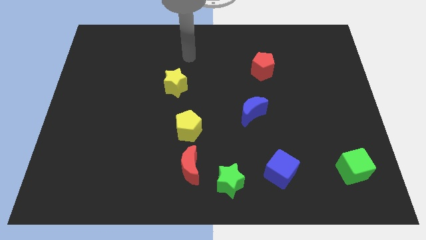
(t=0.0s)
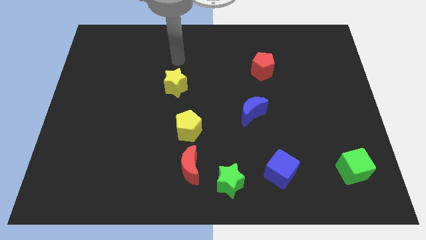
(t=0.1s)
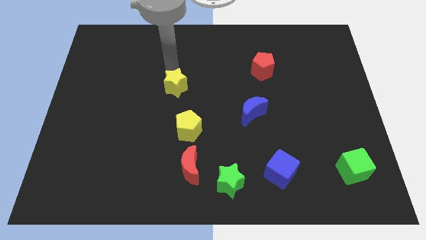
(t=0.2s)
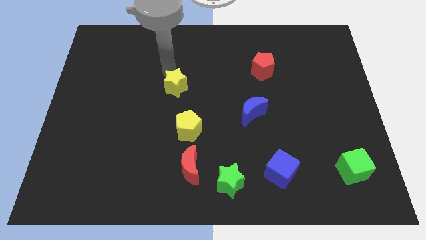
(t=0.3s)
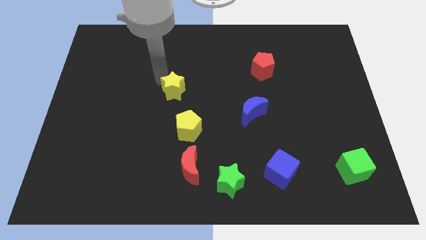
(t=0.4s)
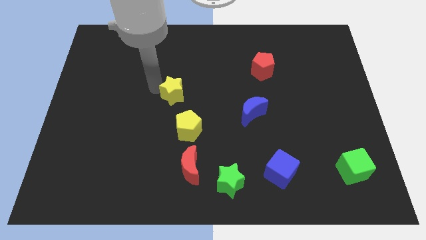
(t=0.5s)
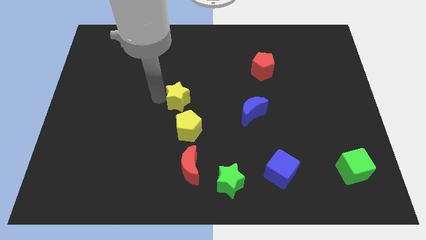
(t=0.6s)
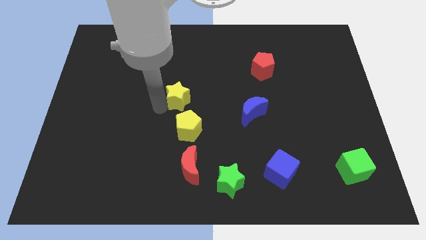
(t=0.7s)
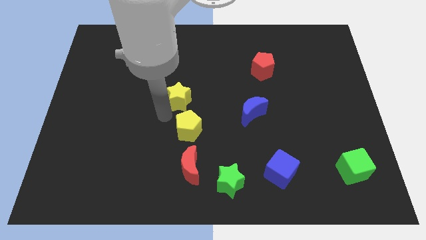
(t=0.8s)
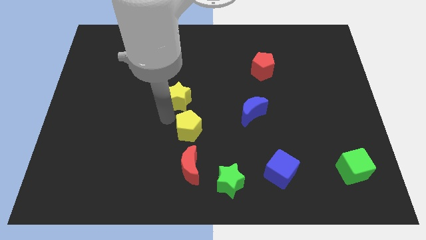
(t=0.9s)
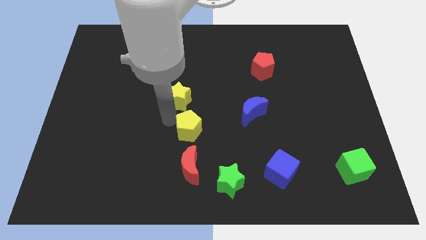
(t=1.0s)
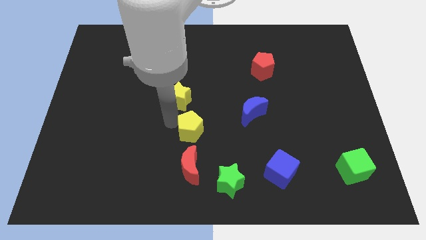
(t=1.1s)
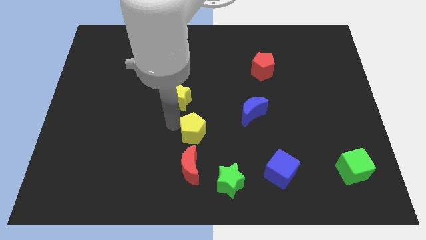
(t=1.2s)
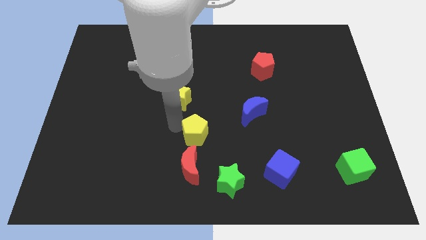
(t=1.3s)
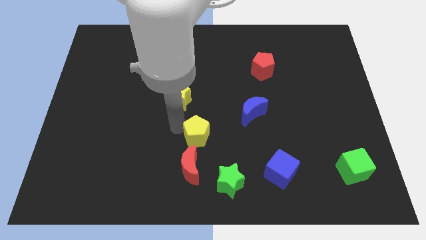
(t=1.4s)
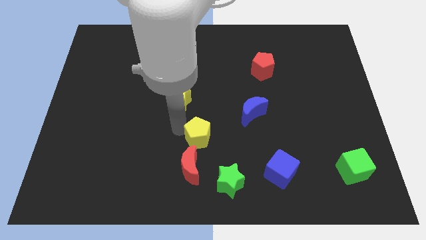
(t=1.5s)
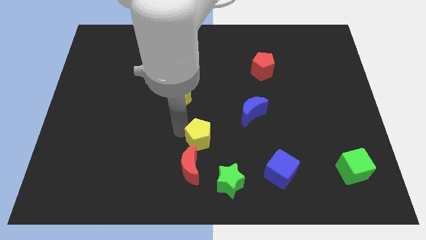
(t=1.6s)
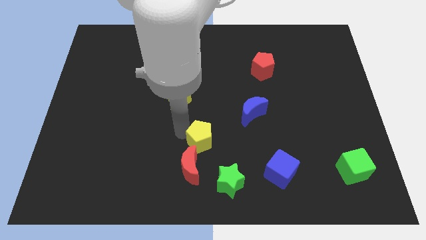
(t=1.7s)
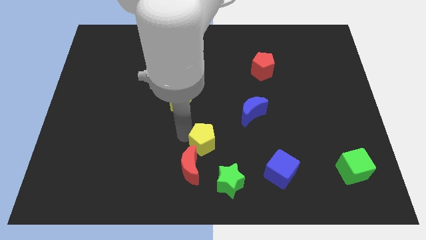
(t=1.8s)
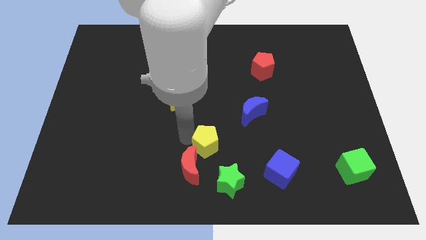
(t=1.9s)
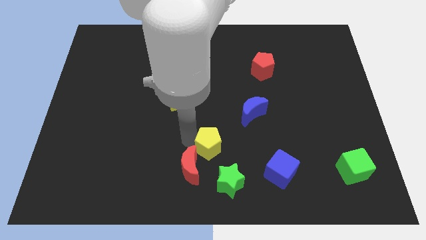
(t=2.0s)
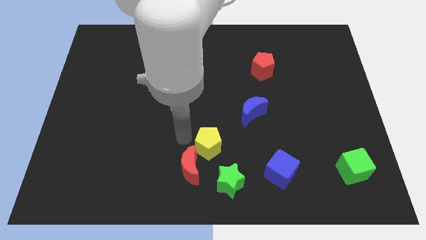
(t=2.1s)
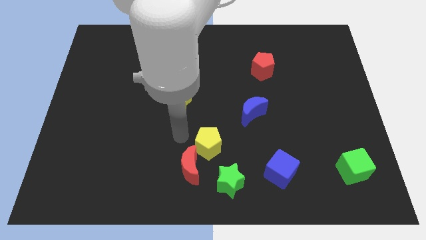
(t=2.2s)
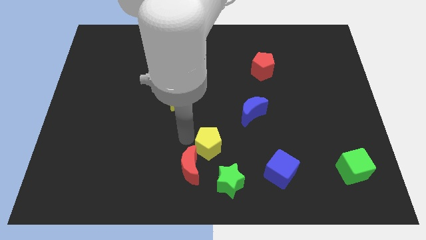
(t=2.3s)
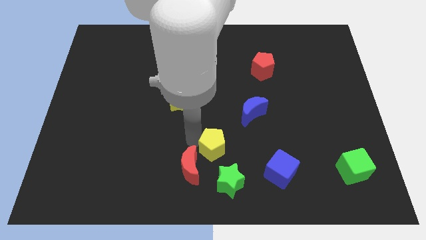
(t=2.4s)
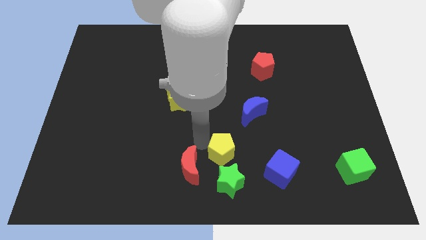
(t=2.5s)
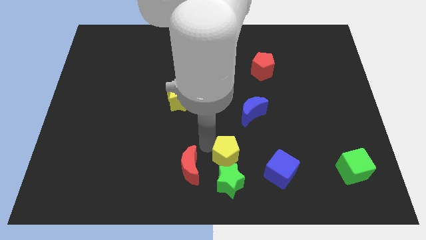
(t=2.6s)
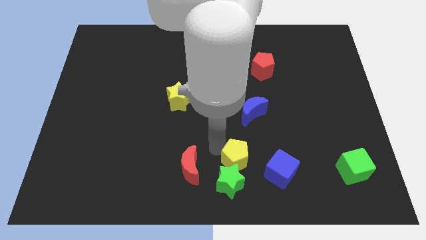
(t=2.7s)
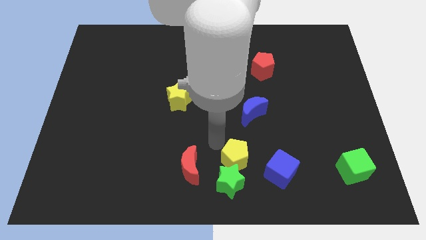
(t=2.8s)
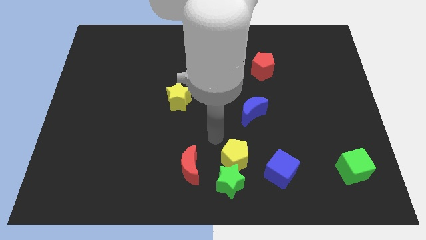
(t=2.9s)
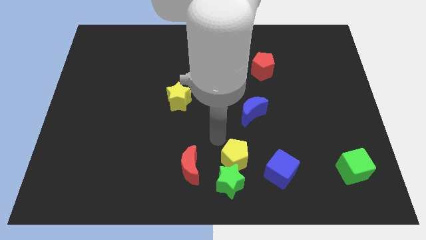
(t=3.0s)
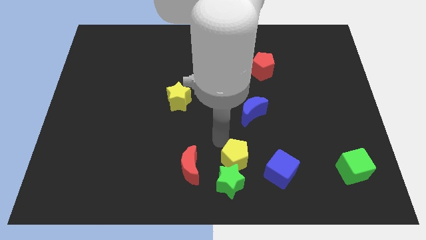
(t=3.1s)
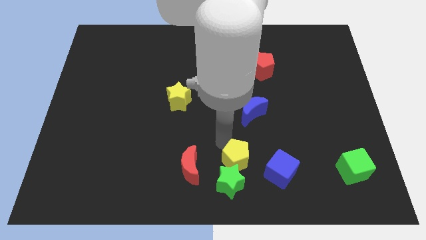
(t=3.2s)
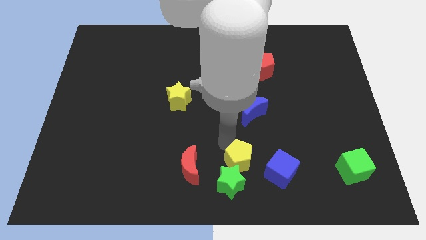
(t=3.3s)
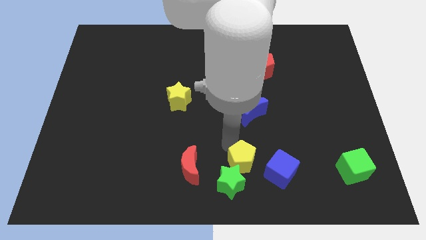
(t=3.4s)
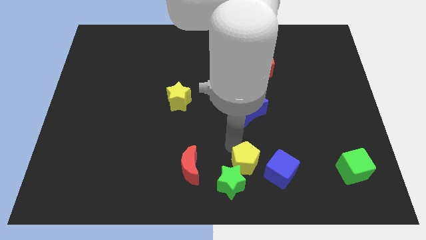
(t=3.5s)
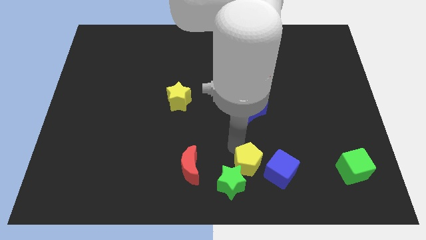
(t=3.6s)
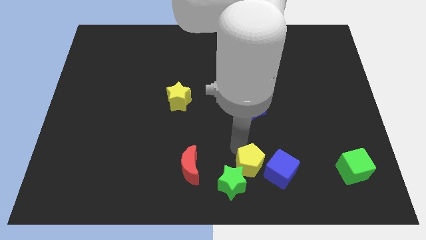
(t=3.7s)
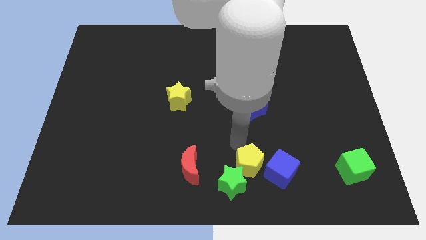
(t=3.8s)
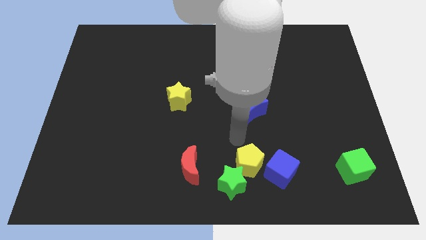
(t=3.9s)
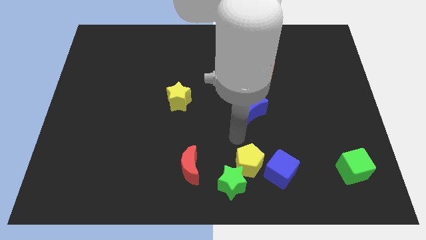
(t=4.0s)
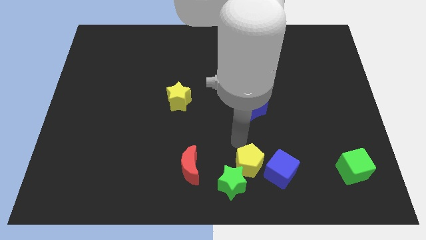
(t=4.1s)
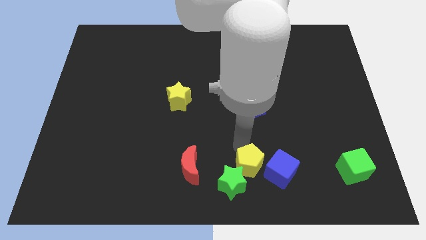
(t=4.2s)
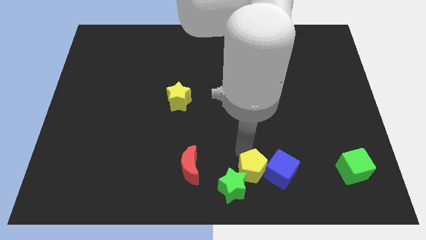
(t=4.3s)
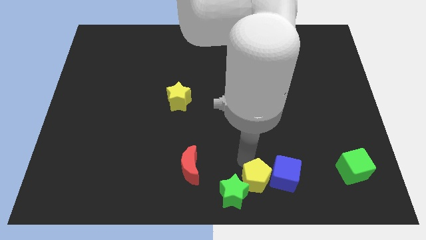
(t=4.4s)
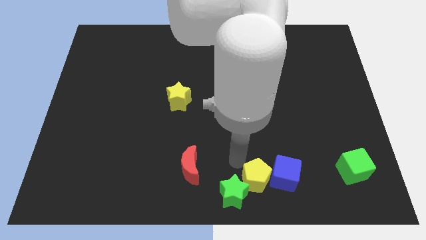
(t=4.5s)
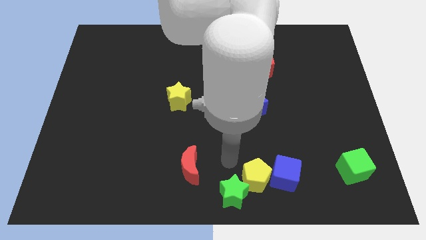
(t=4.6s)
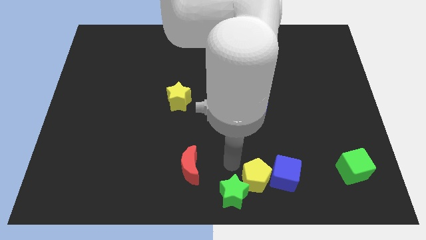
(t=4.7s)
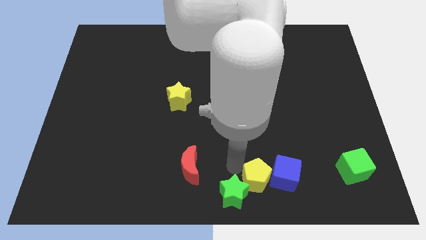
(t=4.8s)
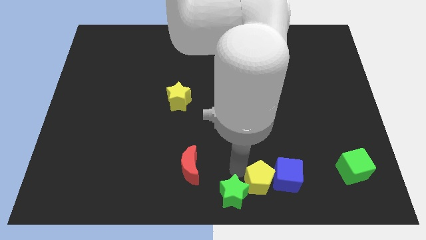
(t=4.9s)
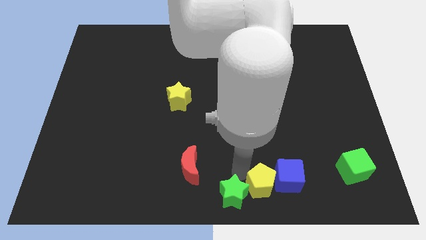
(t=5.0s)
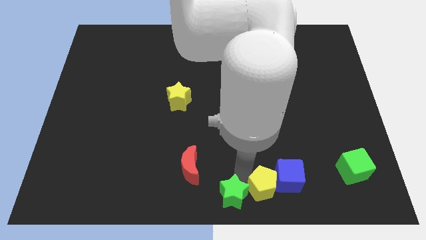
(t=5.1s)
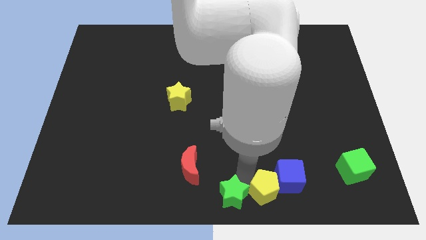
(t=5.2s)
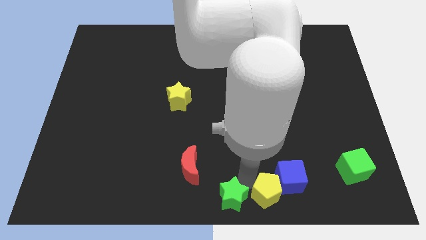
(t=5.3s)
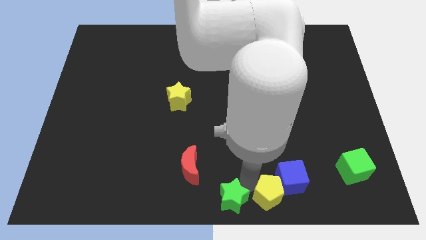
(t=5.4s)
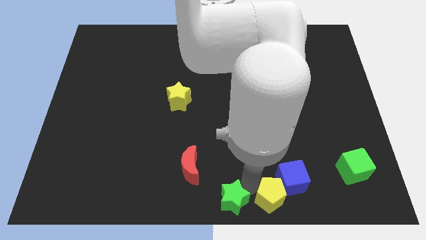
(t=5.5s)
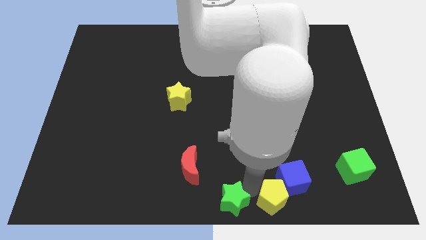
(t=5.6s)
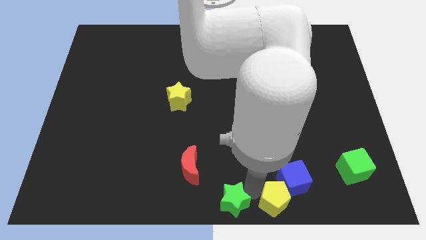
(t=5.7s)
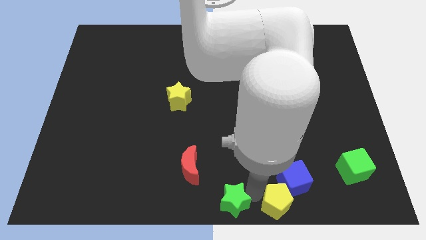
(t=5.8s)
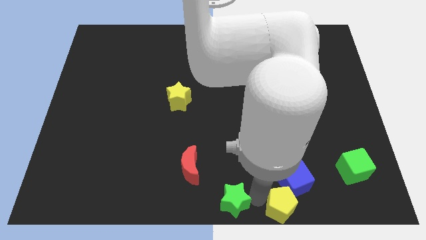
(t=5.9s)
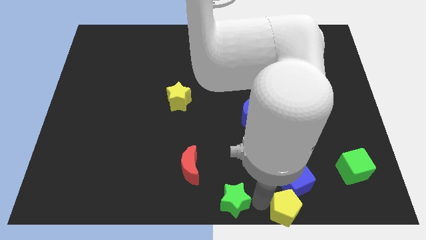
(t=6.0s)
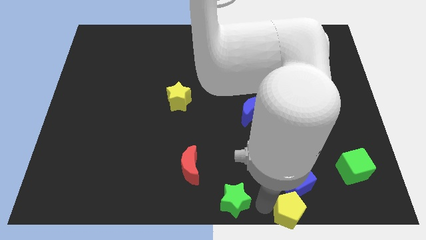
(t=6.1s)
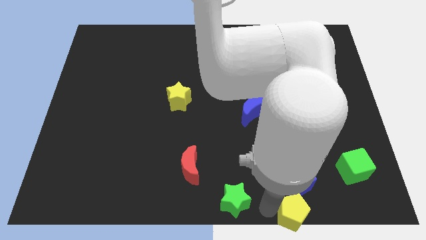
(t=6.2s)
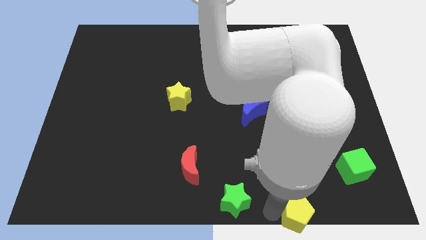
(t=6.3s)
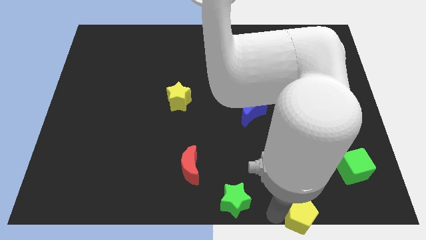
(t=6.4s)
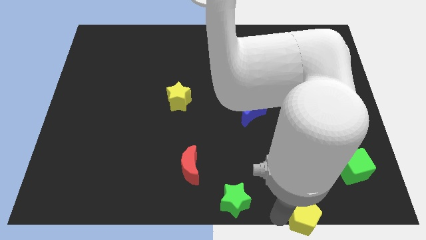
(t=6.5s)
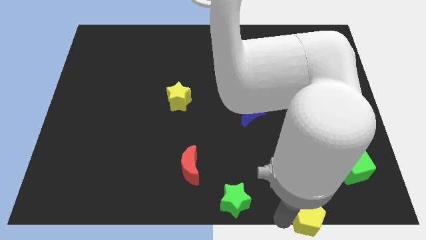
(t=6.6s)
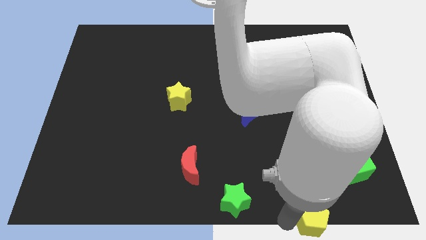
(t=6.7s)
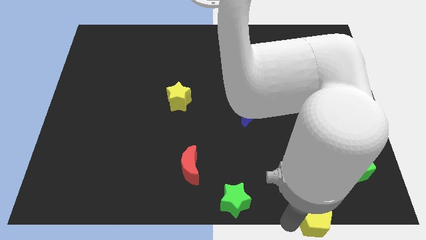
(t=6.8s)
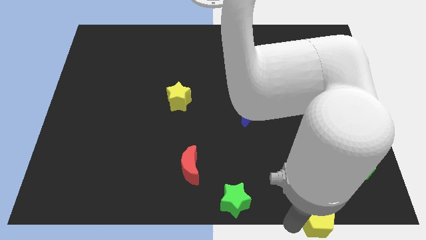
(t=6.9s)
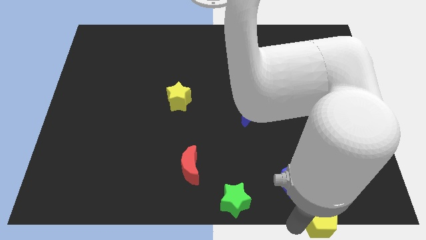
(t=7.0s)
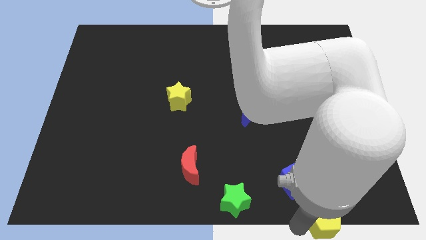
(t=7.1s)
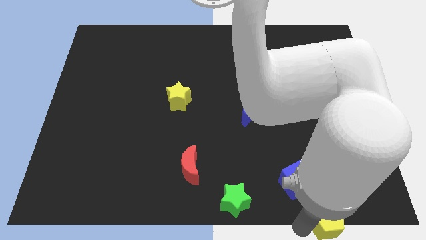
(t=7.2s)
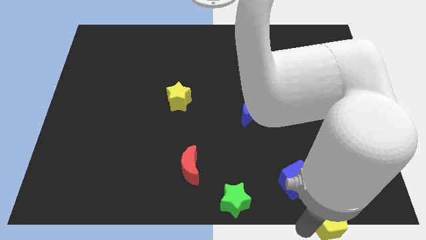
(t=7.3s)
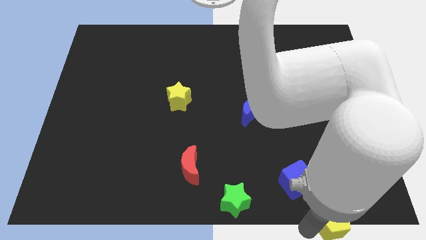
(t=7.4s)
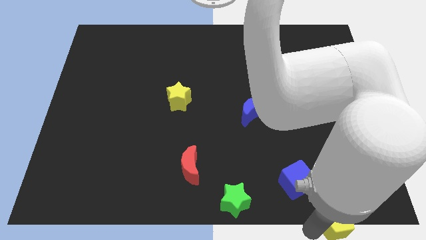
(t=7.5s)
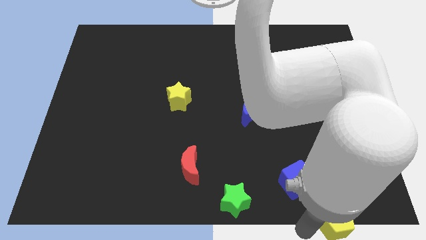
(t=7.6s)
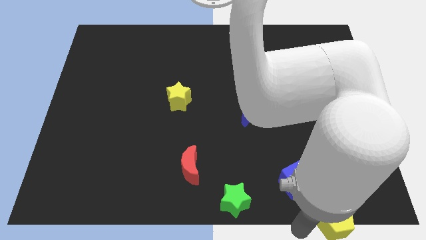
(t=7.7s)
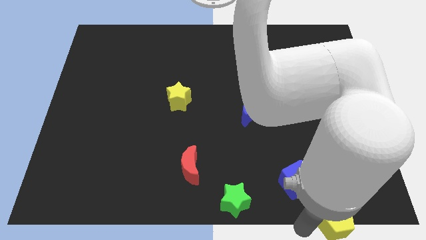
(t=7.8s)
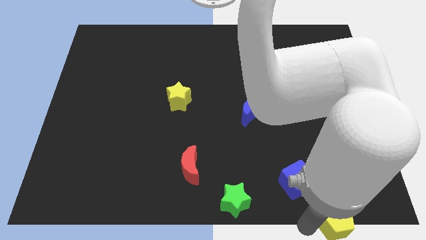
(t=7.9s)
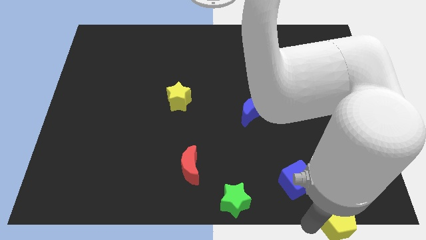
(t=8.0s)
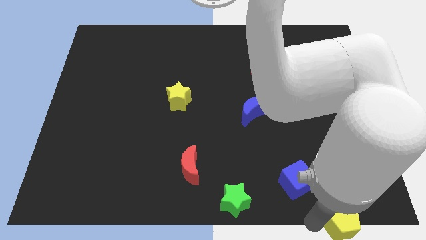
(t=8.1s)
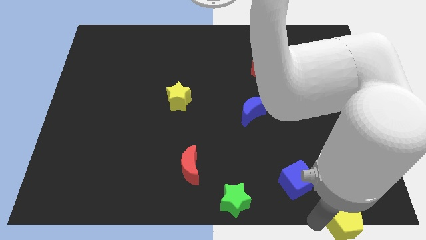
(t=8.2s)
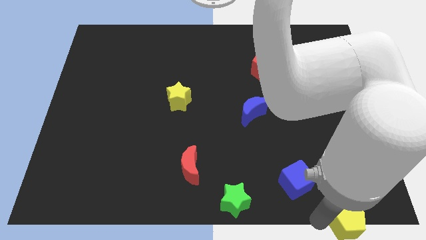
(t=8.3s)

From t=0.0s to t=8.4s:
push the yellow pentagon to the lower right corner
